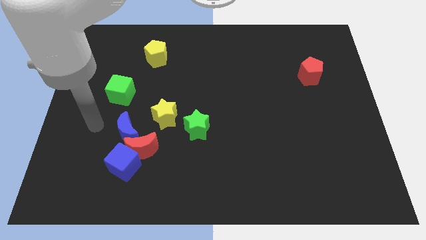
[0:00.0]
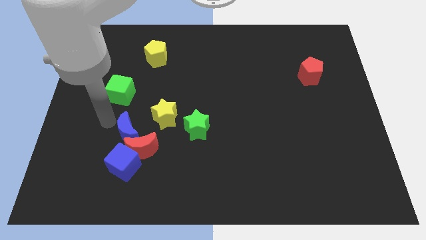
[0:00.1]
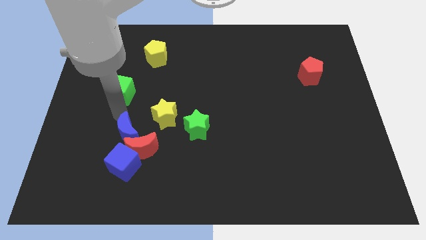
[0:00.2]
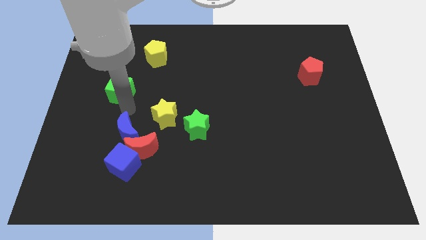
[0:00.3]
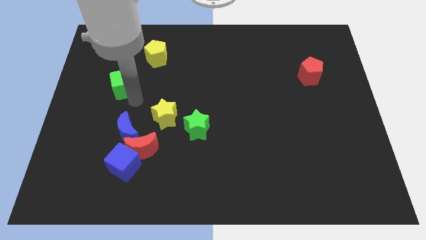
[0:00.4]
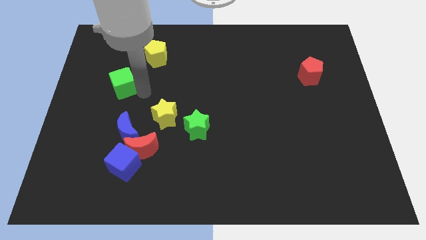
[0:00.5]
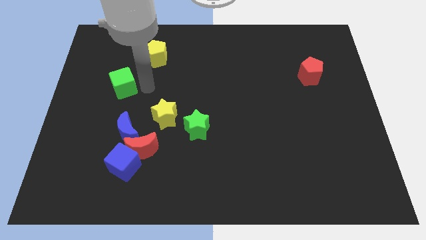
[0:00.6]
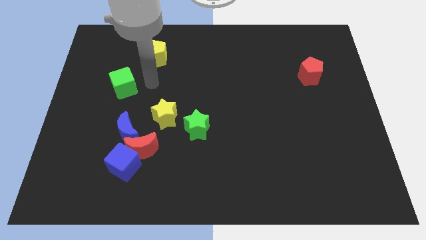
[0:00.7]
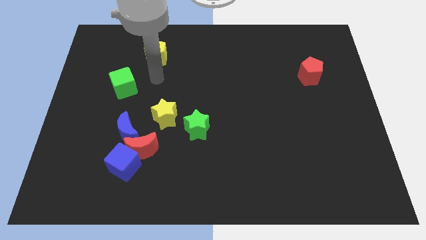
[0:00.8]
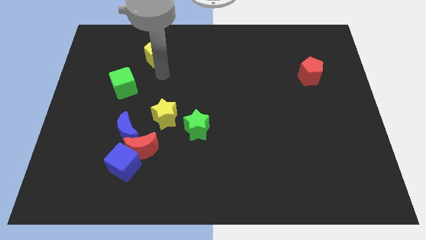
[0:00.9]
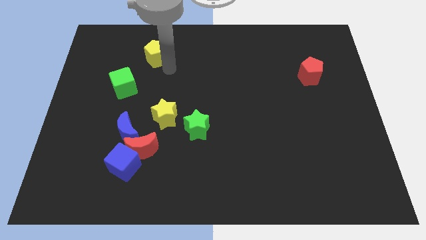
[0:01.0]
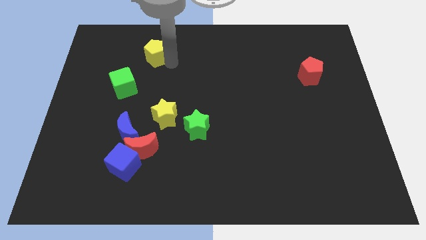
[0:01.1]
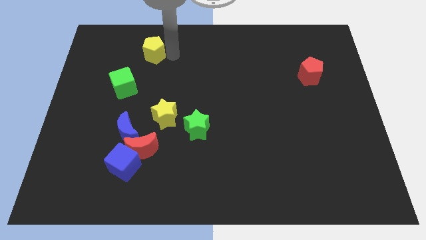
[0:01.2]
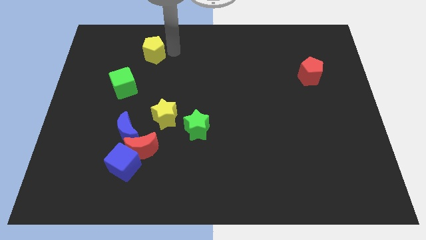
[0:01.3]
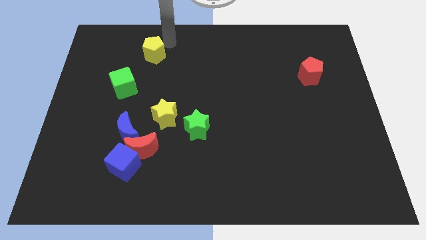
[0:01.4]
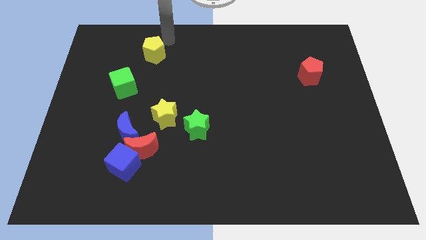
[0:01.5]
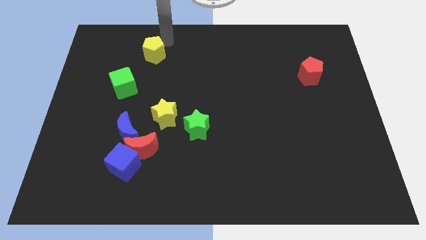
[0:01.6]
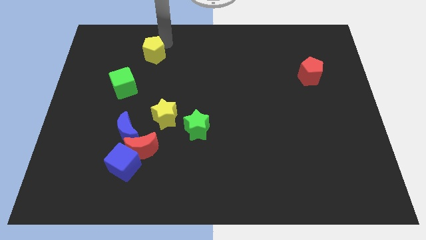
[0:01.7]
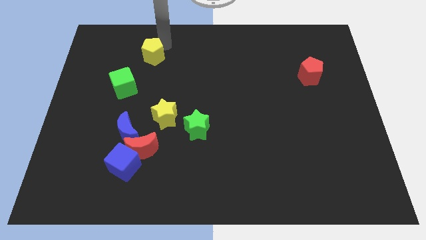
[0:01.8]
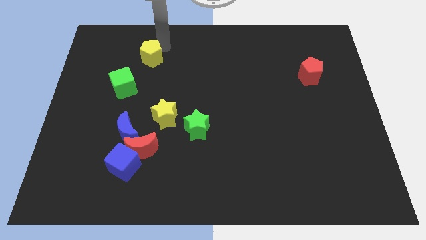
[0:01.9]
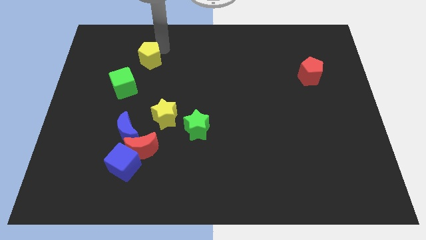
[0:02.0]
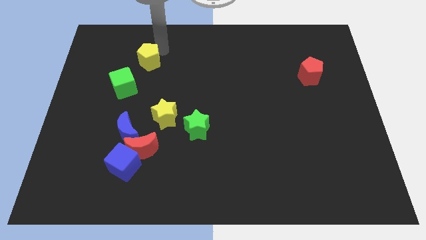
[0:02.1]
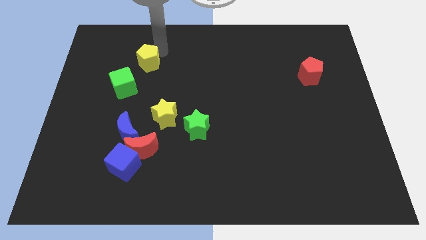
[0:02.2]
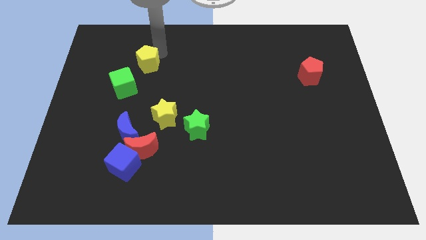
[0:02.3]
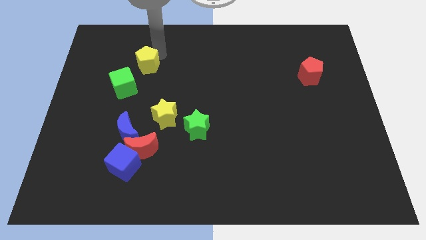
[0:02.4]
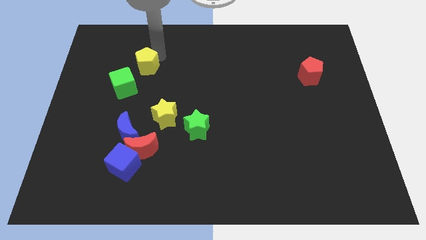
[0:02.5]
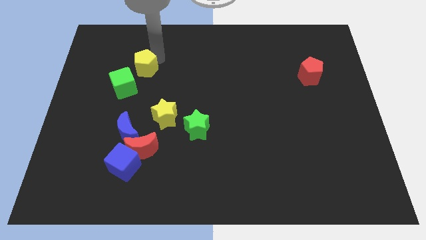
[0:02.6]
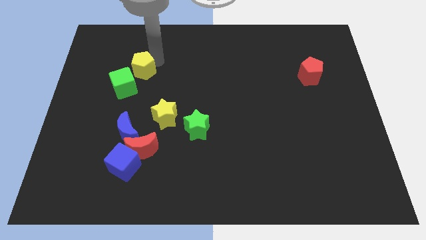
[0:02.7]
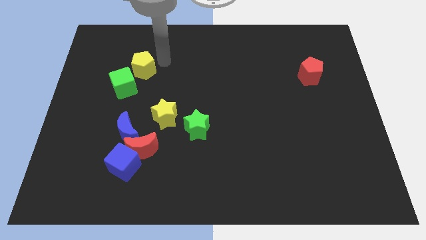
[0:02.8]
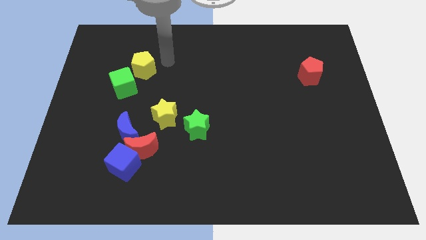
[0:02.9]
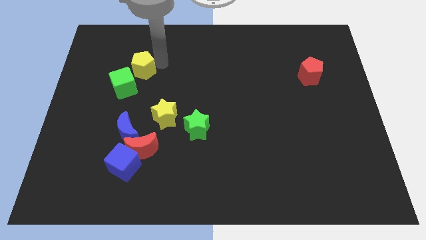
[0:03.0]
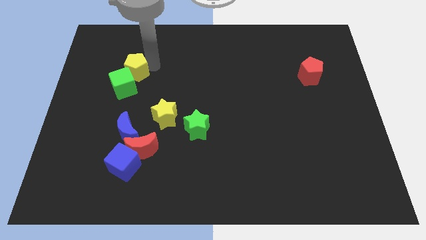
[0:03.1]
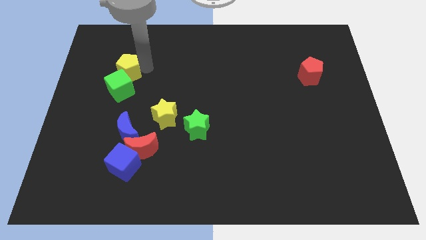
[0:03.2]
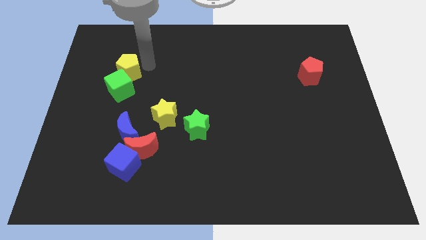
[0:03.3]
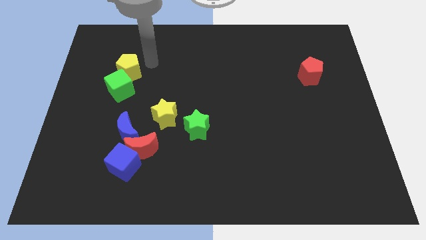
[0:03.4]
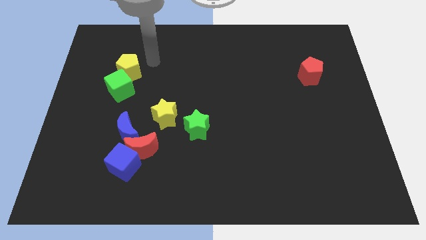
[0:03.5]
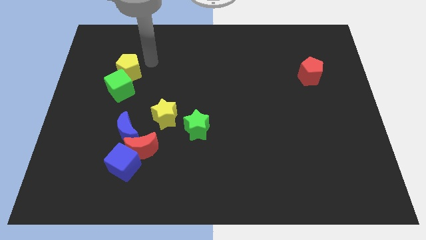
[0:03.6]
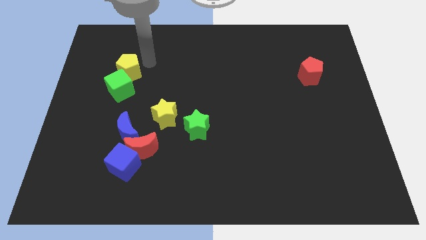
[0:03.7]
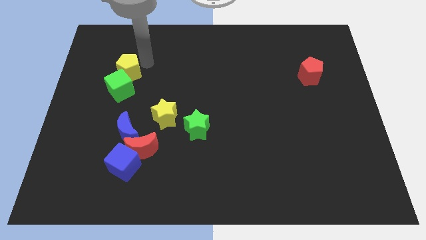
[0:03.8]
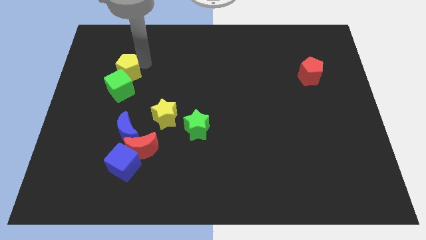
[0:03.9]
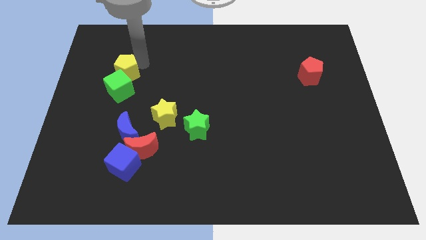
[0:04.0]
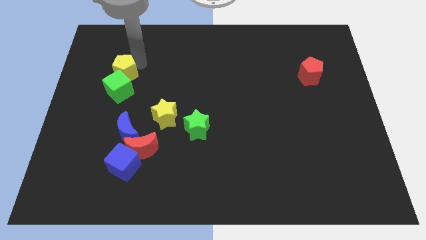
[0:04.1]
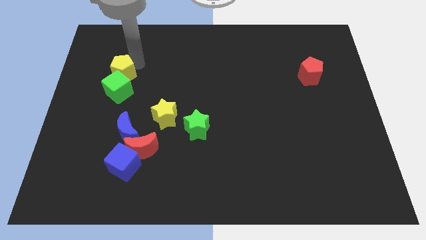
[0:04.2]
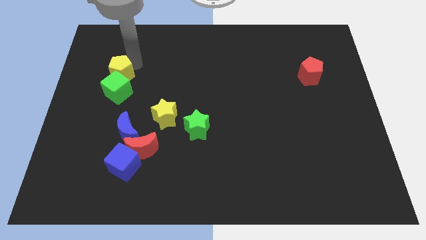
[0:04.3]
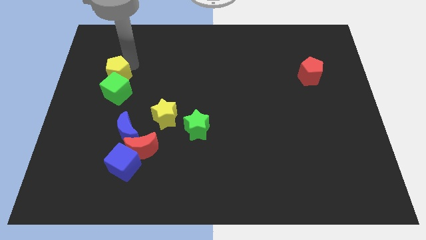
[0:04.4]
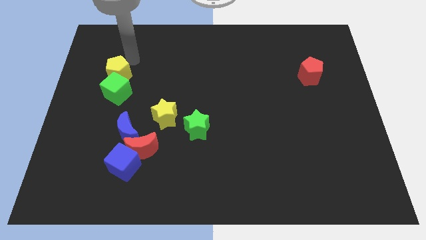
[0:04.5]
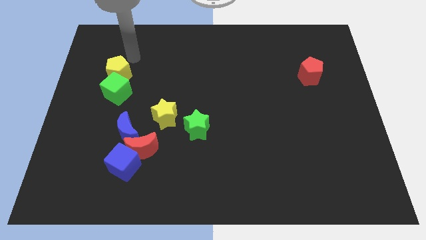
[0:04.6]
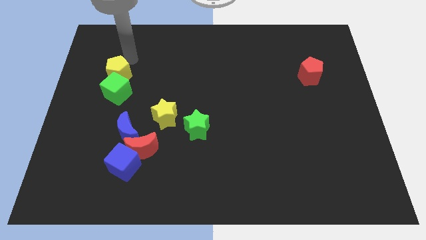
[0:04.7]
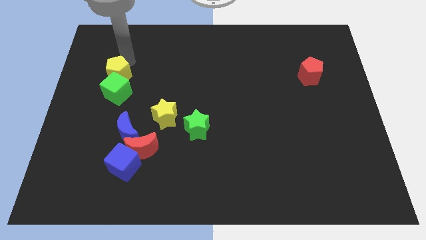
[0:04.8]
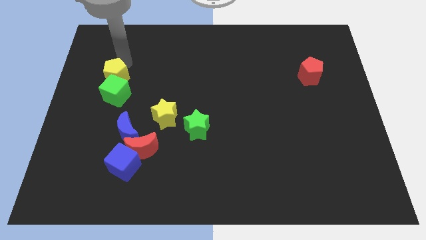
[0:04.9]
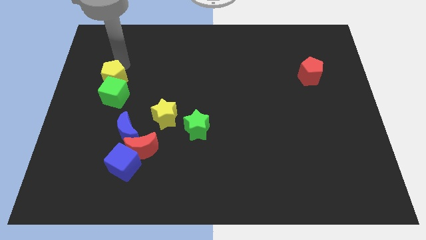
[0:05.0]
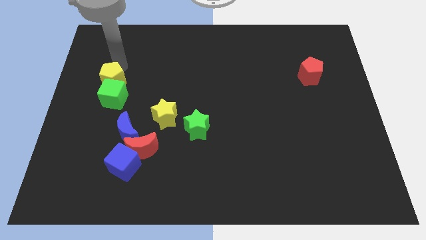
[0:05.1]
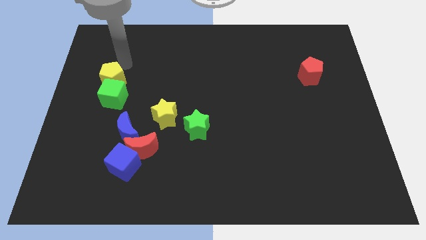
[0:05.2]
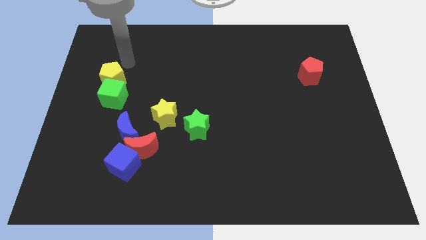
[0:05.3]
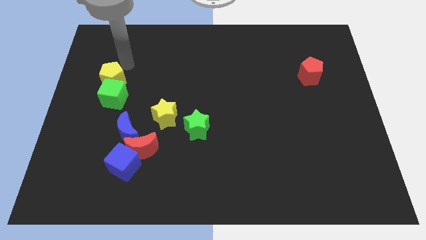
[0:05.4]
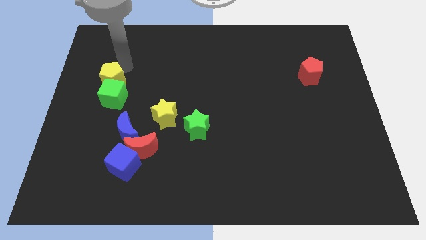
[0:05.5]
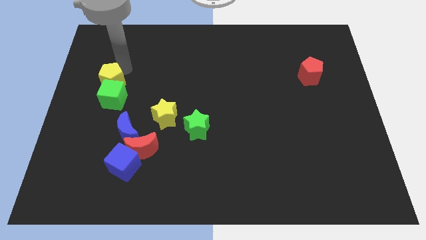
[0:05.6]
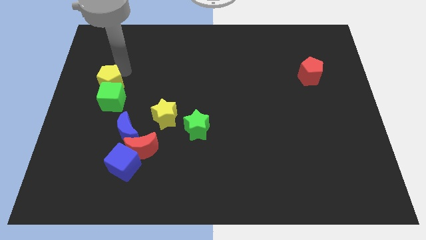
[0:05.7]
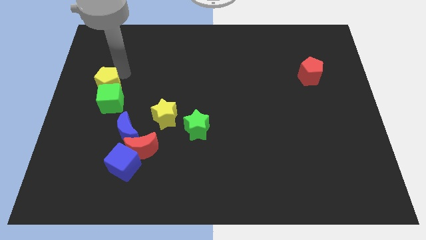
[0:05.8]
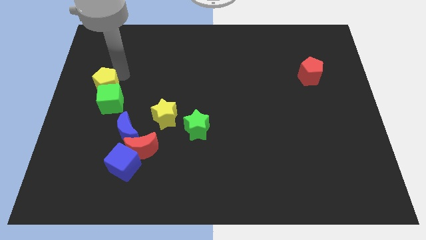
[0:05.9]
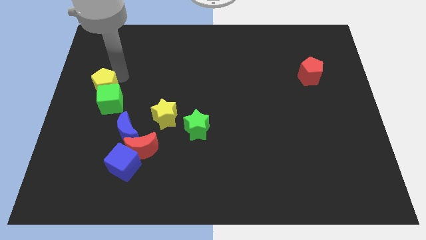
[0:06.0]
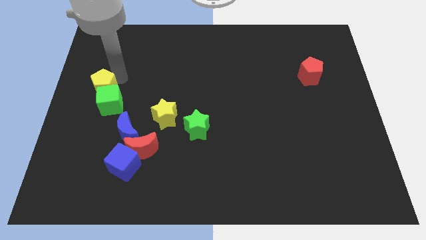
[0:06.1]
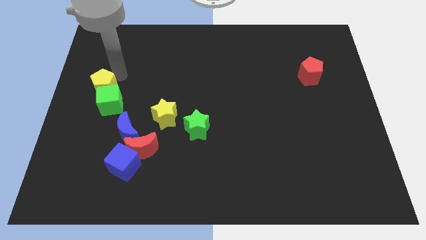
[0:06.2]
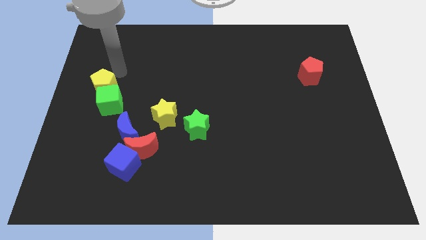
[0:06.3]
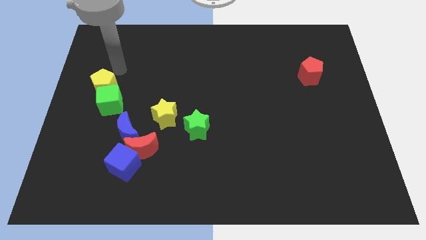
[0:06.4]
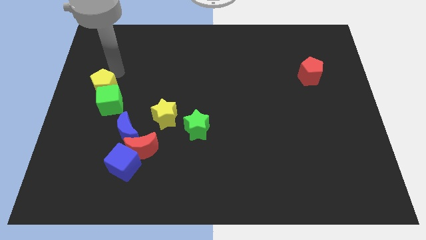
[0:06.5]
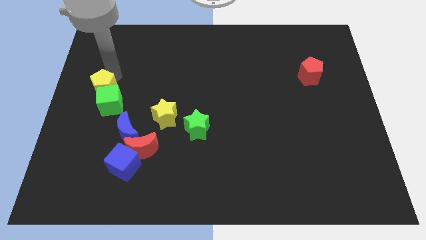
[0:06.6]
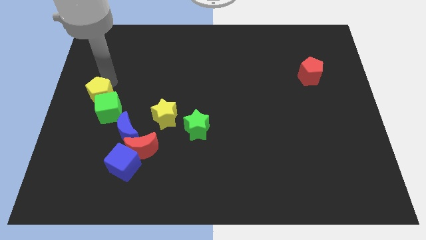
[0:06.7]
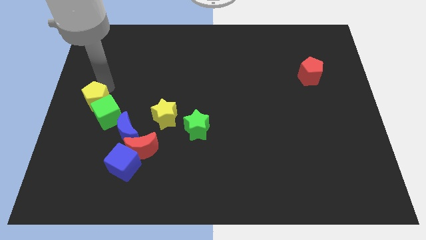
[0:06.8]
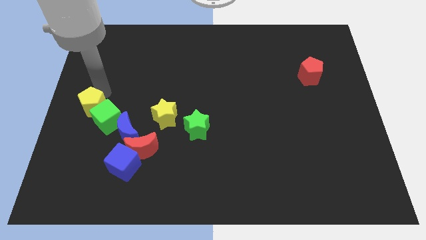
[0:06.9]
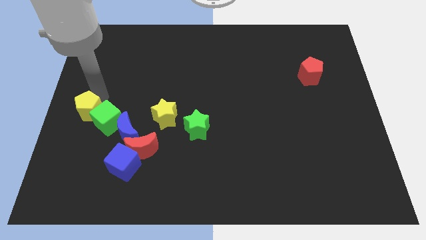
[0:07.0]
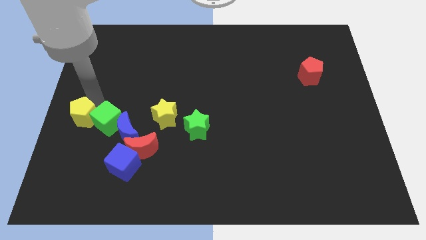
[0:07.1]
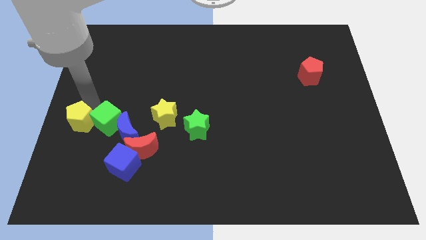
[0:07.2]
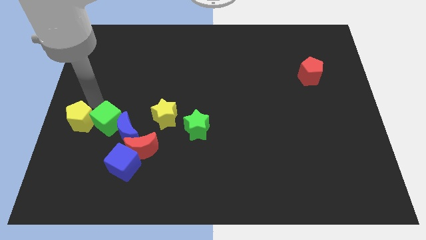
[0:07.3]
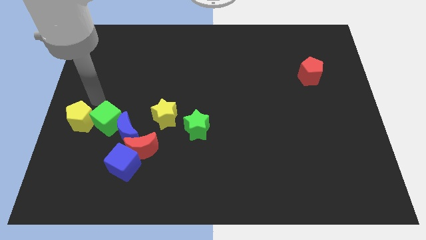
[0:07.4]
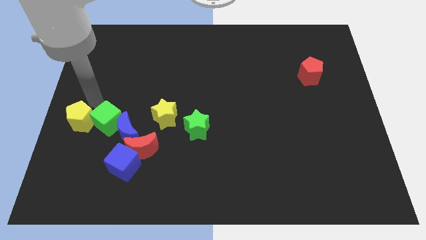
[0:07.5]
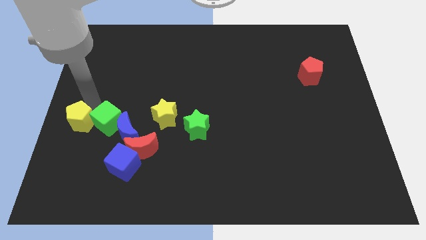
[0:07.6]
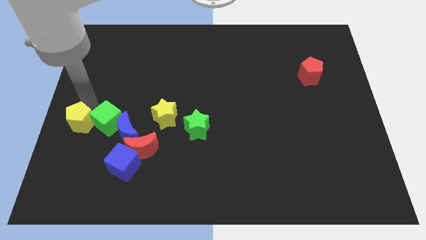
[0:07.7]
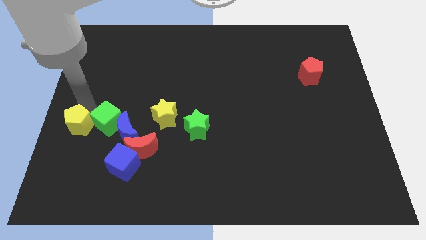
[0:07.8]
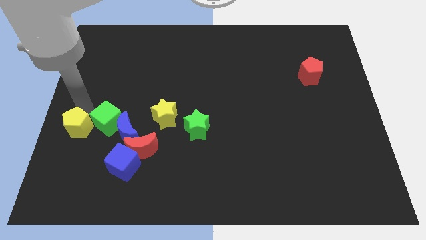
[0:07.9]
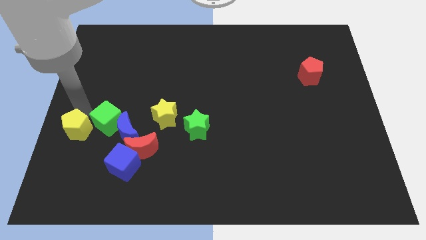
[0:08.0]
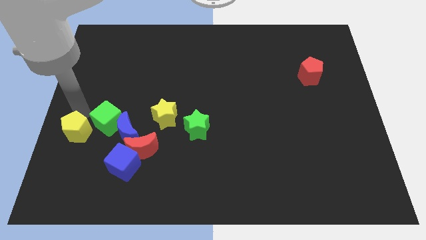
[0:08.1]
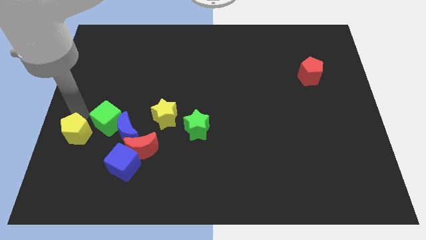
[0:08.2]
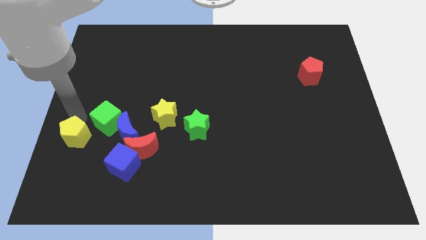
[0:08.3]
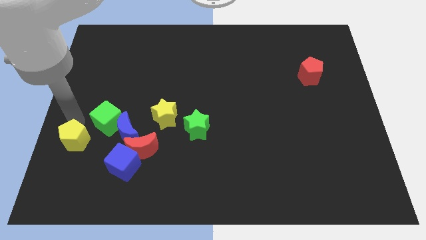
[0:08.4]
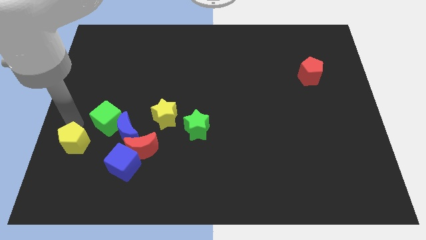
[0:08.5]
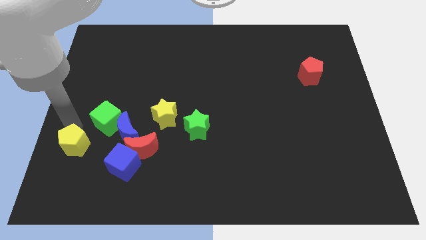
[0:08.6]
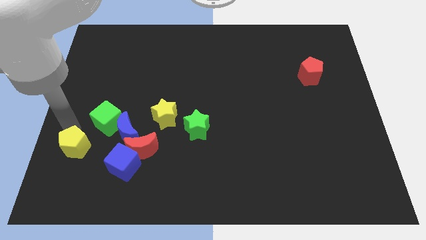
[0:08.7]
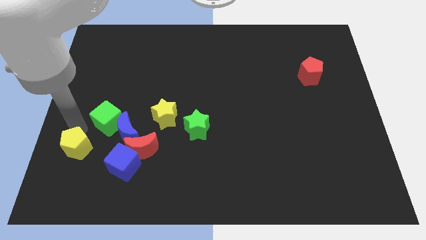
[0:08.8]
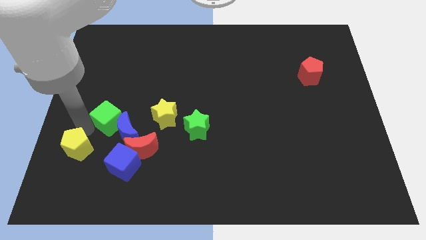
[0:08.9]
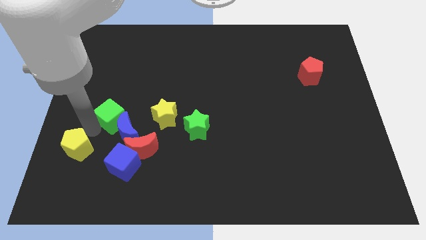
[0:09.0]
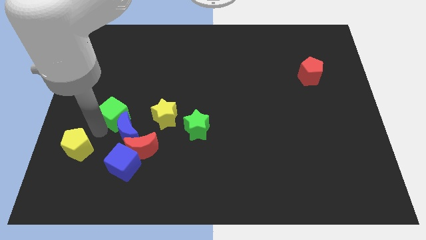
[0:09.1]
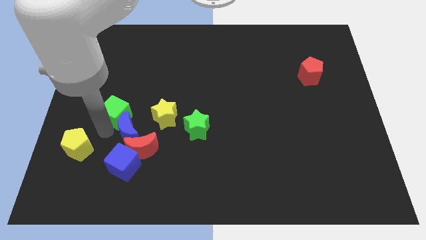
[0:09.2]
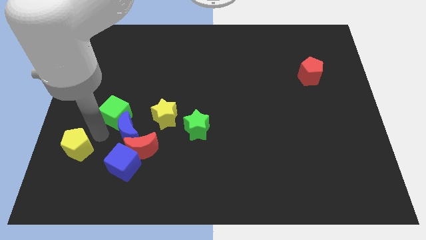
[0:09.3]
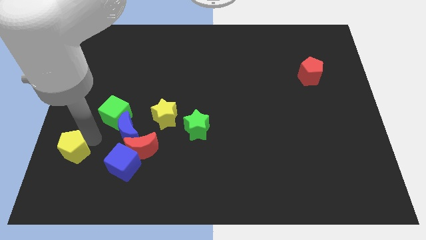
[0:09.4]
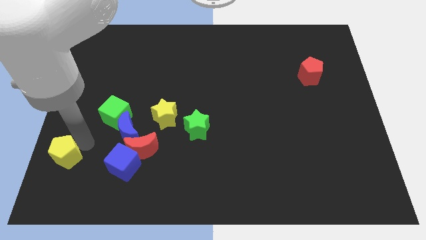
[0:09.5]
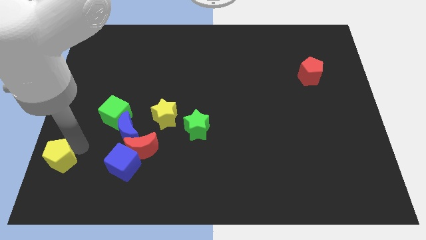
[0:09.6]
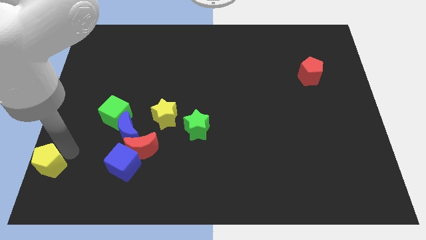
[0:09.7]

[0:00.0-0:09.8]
put the yellow pentagon to the bottom left corner
